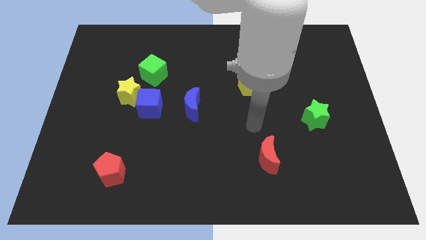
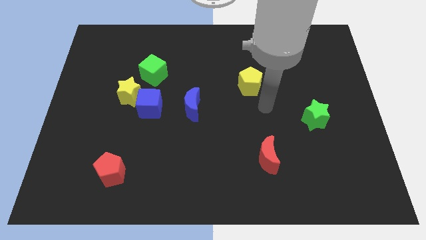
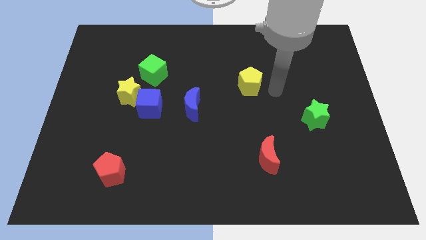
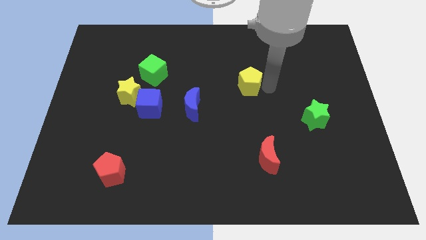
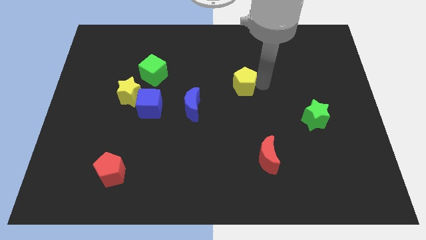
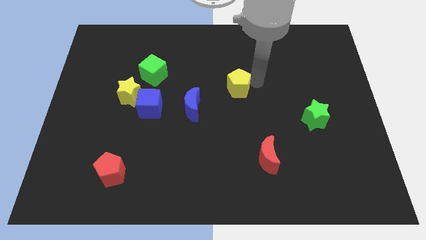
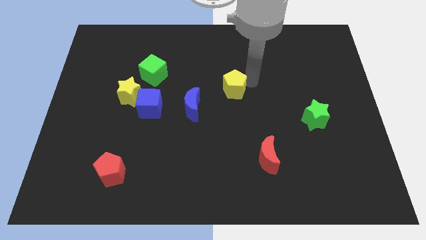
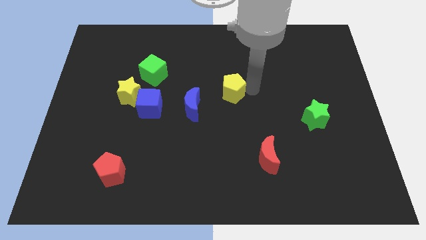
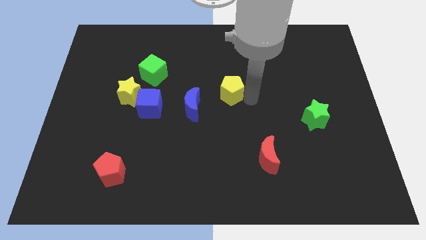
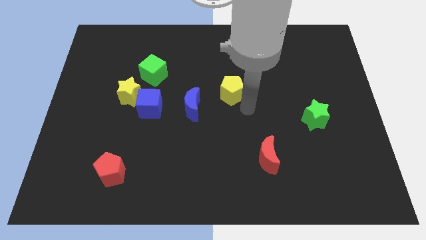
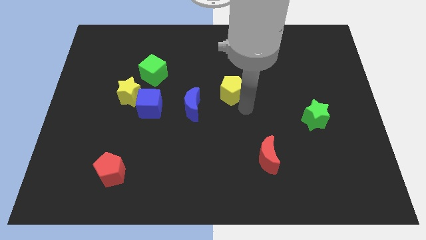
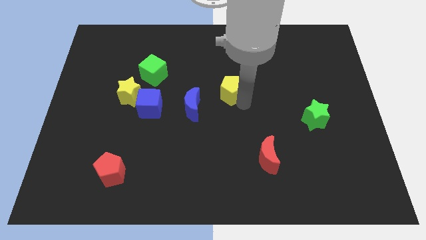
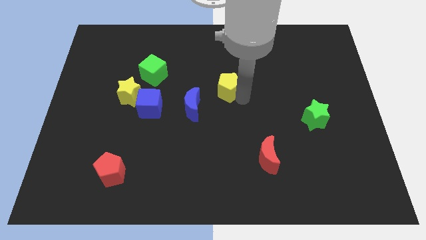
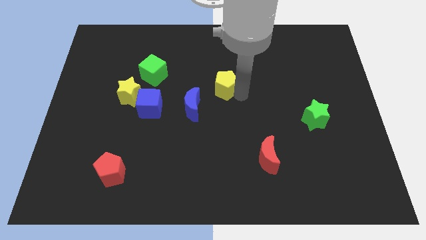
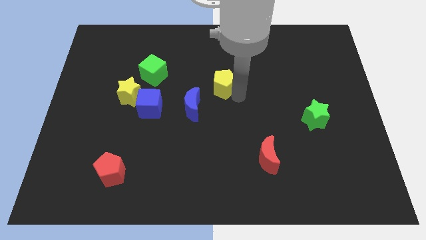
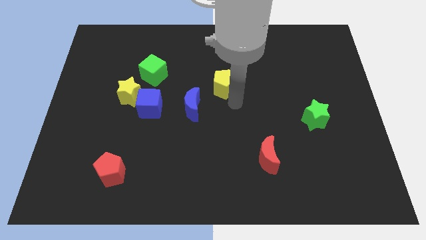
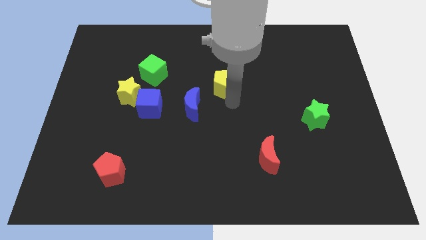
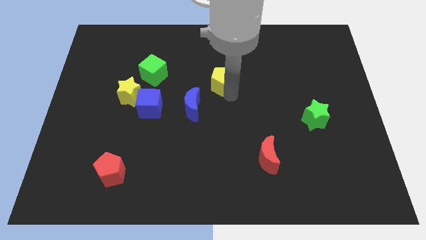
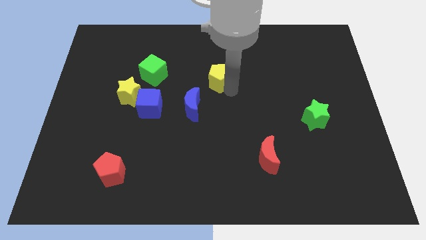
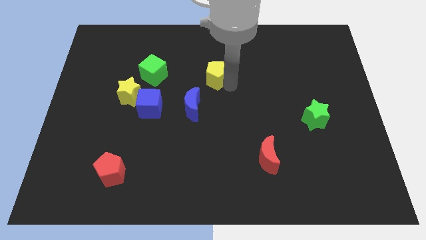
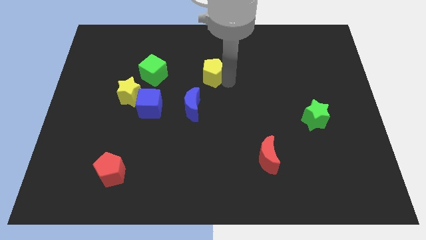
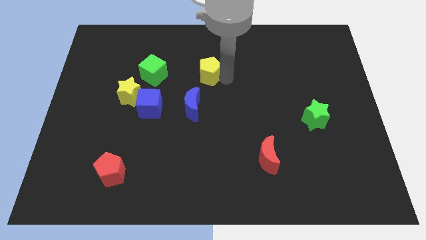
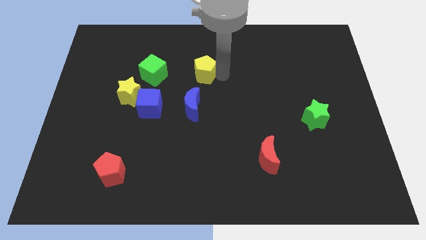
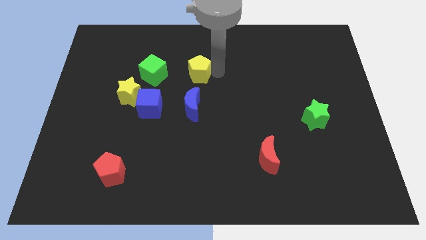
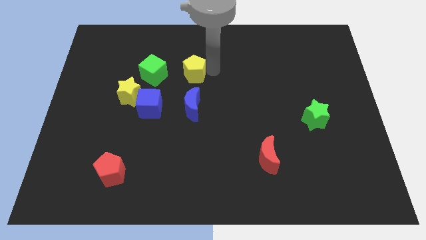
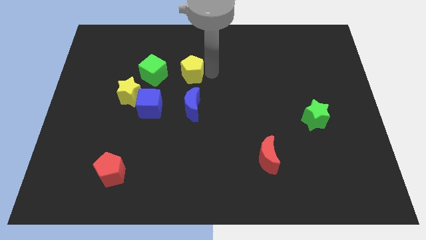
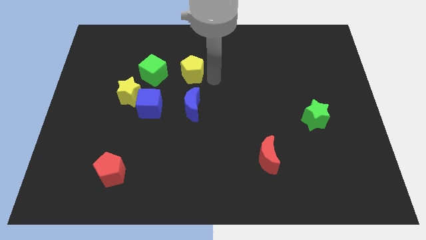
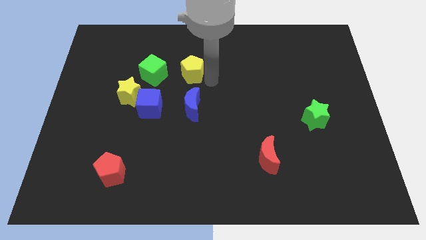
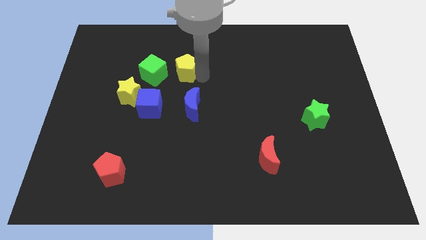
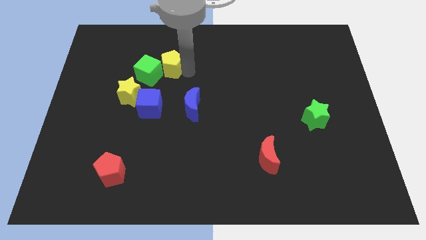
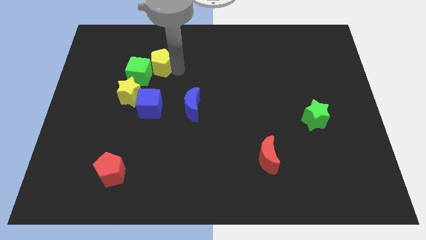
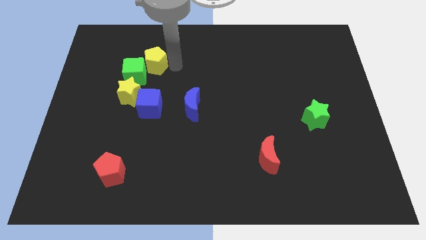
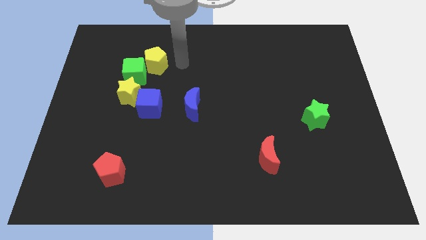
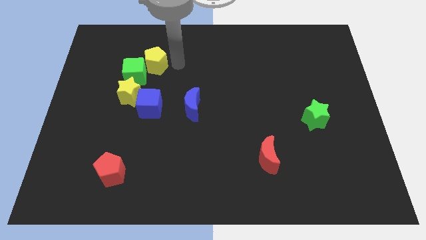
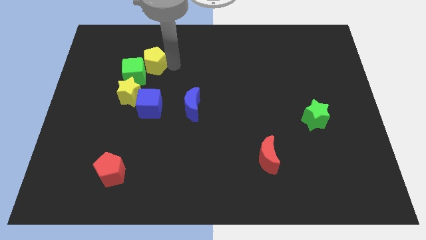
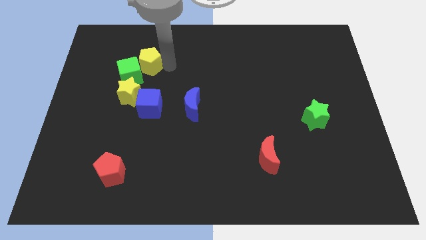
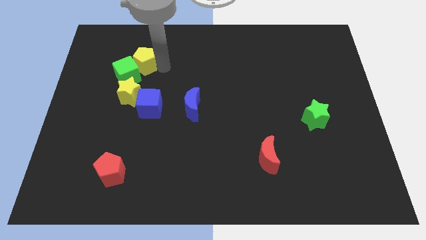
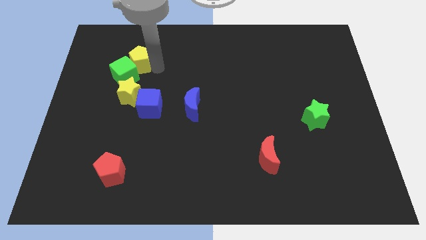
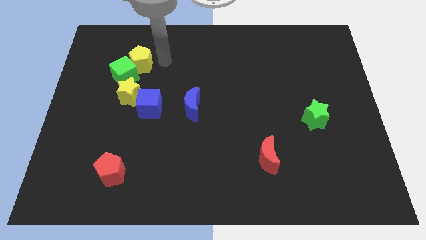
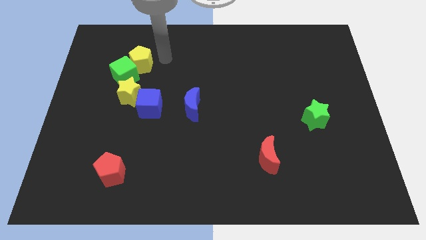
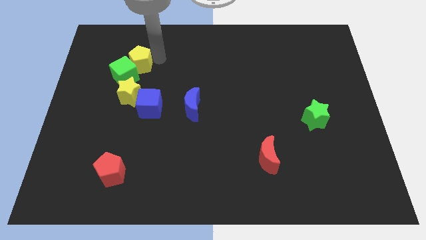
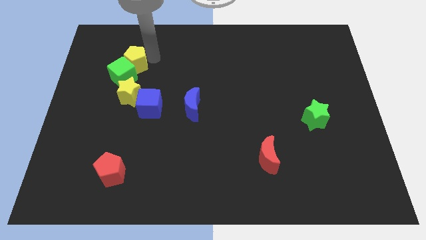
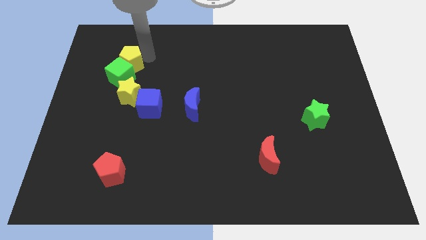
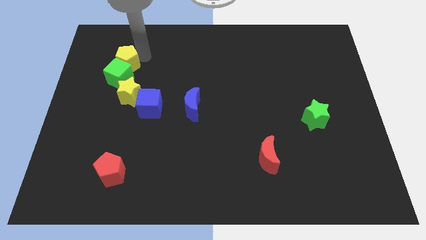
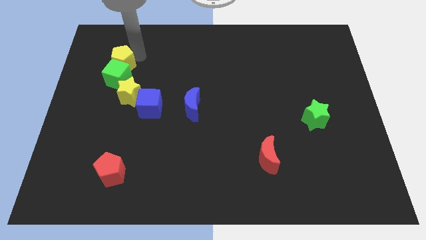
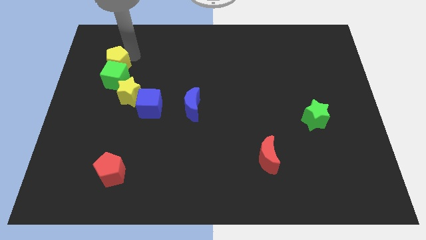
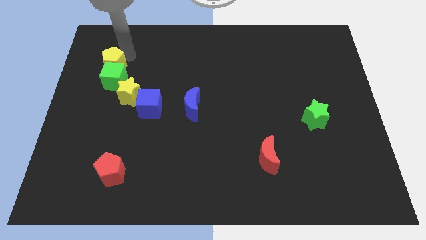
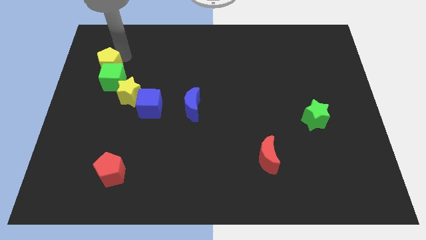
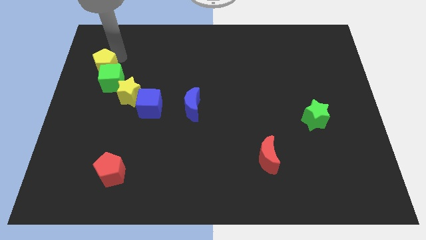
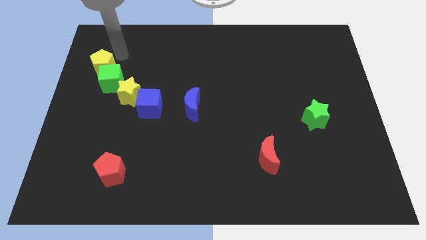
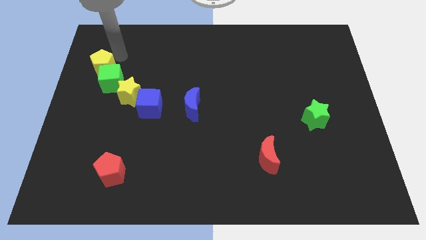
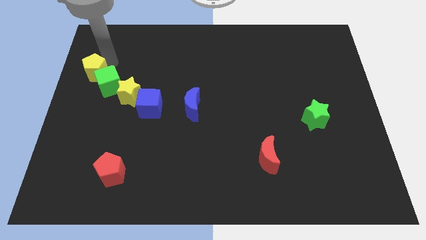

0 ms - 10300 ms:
slide the yellow pentagon to the left side of the board

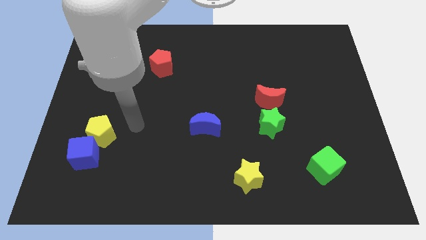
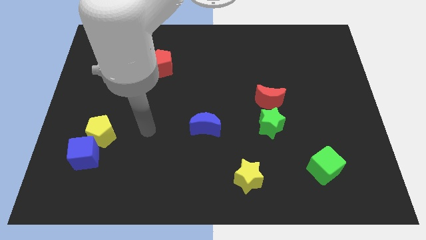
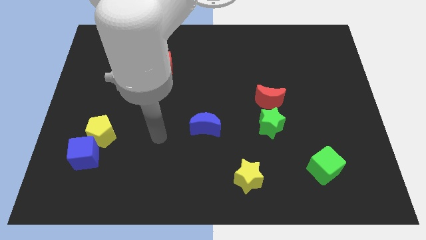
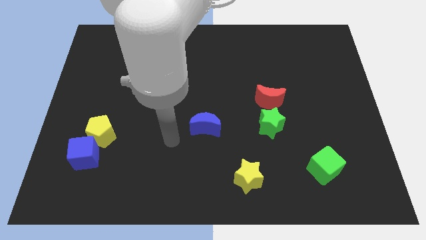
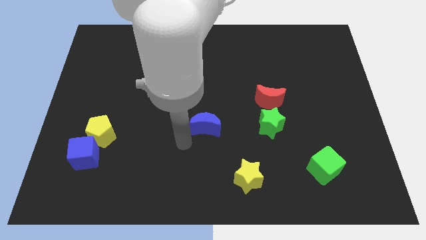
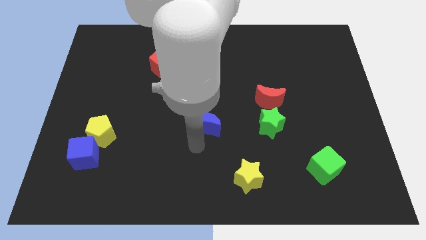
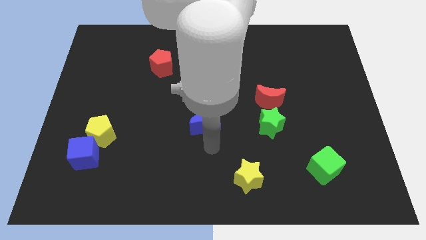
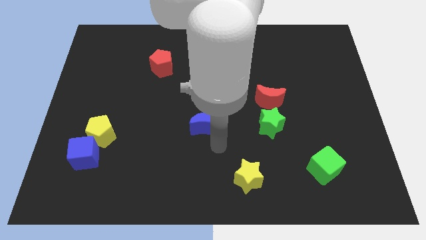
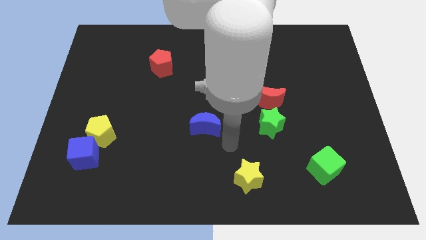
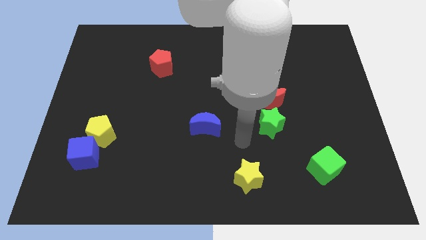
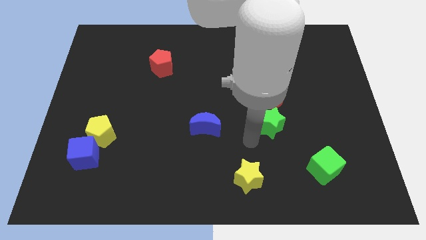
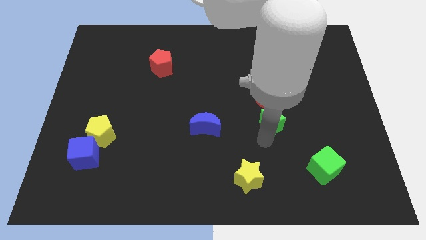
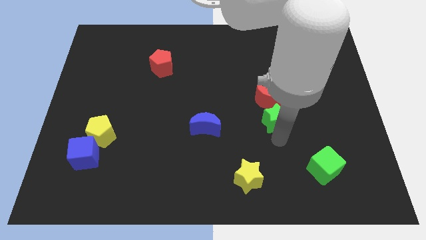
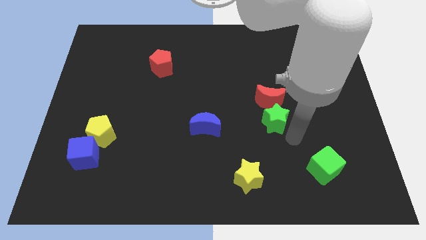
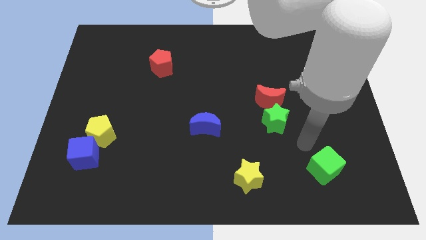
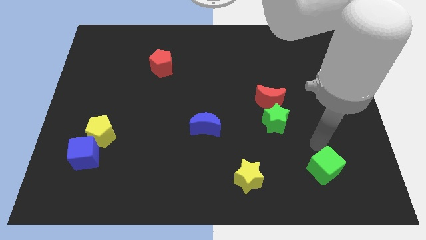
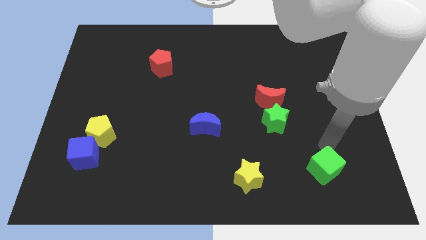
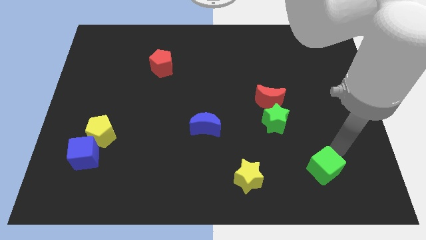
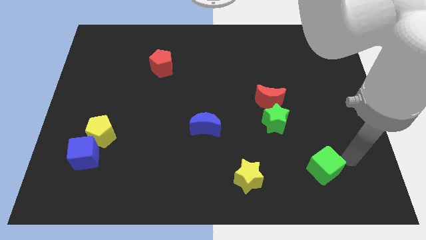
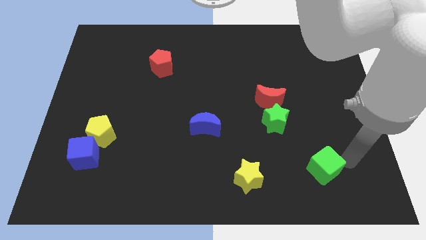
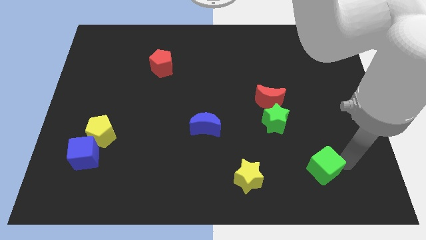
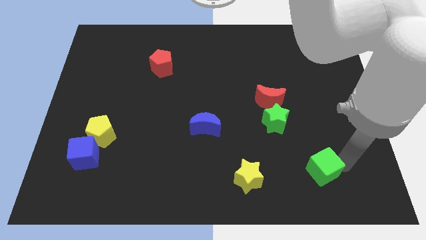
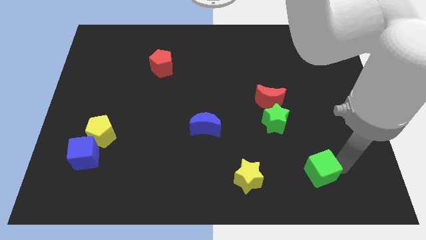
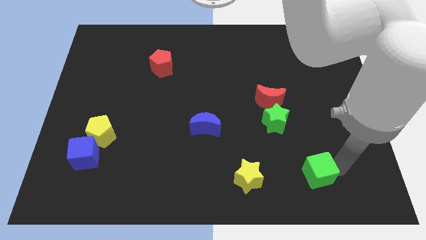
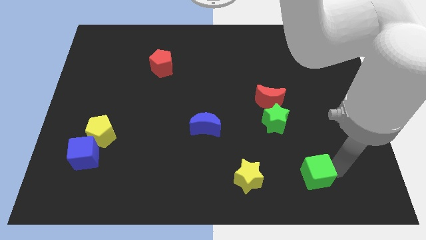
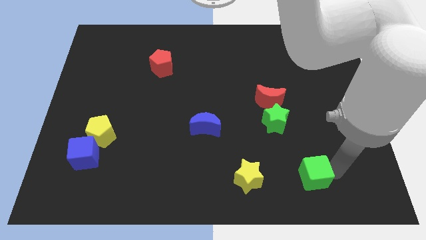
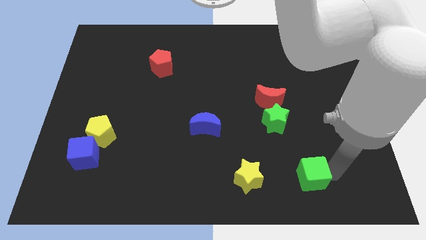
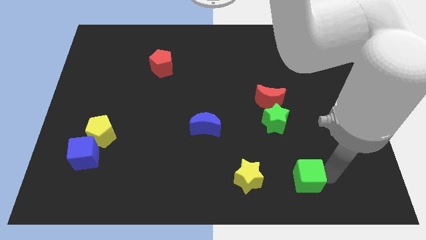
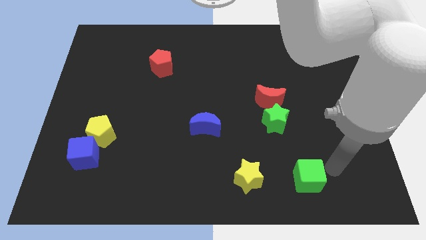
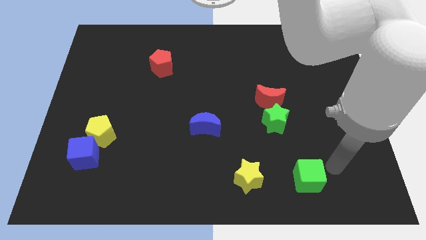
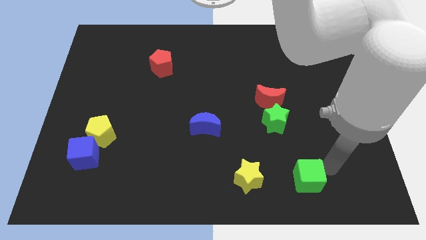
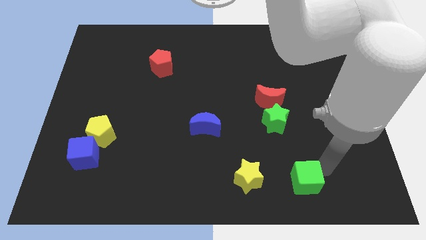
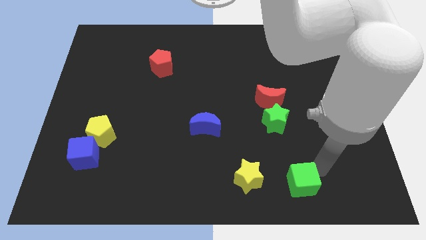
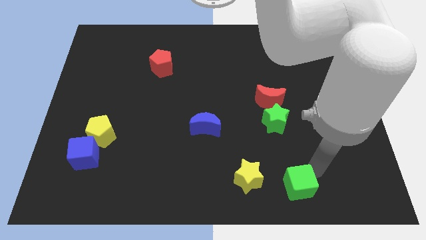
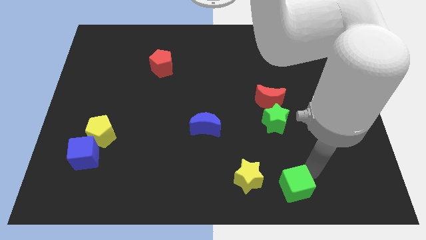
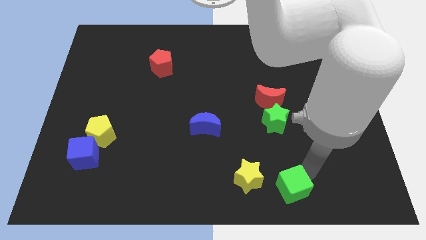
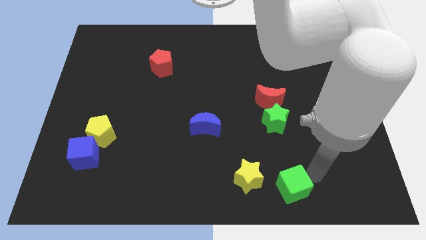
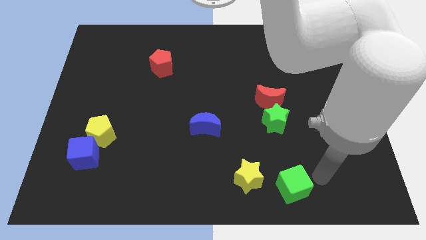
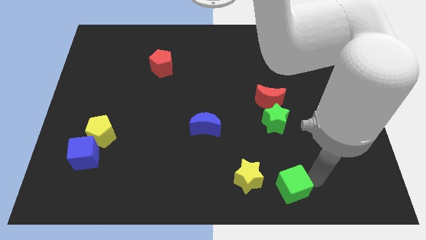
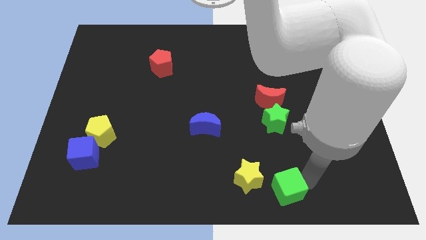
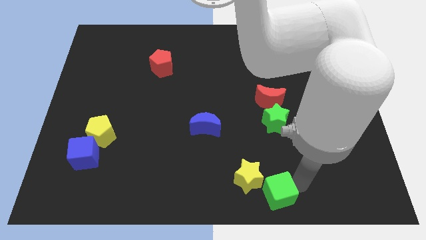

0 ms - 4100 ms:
slide the green cube to the bottom side
